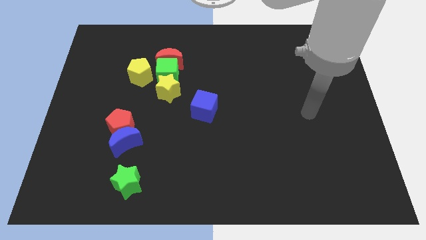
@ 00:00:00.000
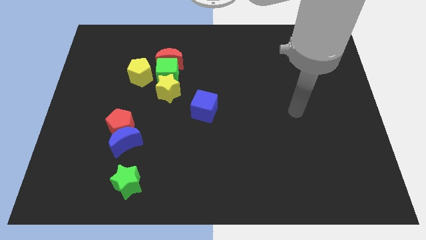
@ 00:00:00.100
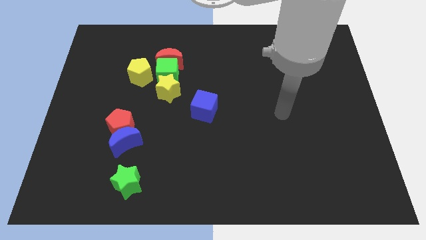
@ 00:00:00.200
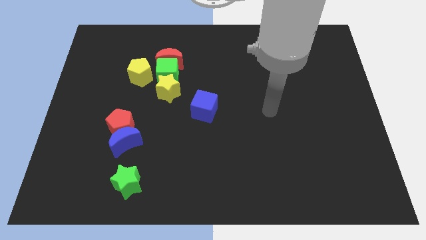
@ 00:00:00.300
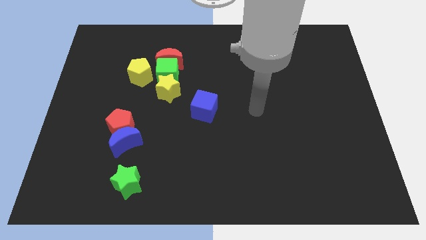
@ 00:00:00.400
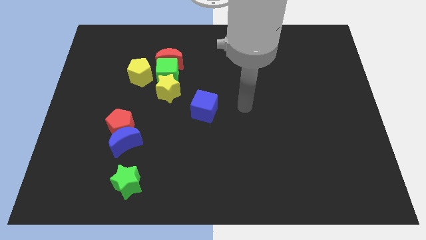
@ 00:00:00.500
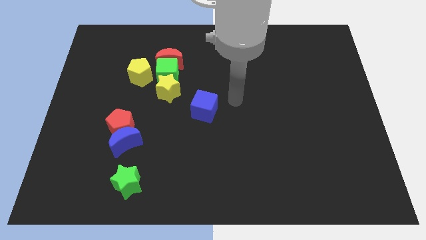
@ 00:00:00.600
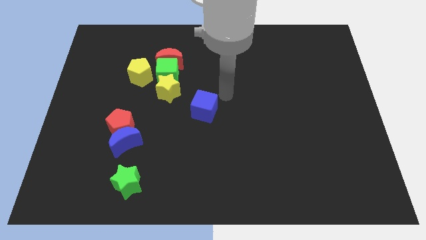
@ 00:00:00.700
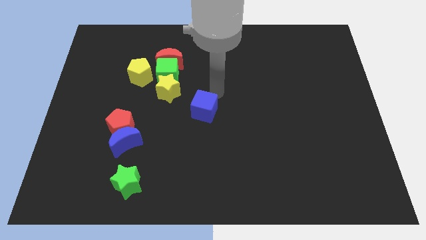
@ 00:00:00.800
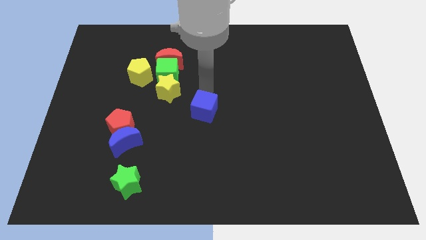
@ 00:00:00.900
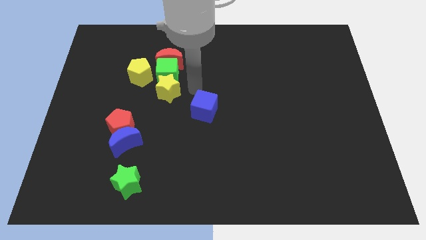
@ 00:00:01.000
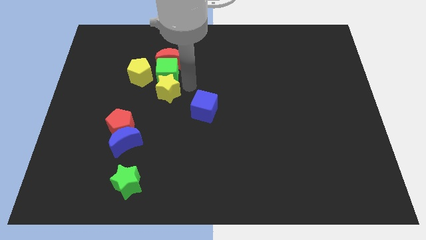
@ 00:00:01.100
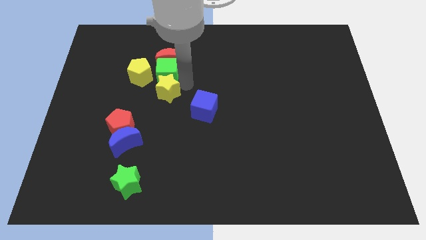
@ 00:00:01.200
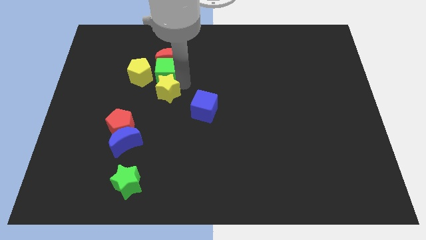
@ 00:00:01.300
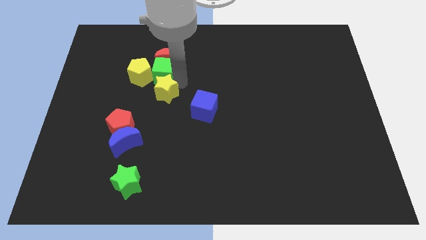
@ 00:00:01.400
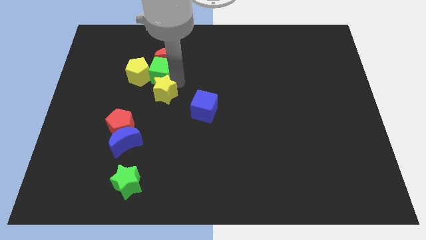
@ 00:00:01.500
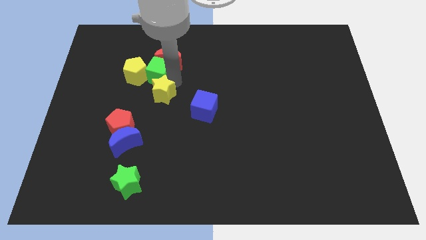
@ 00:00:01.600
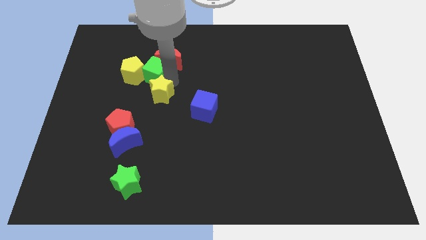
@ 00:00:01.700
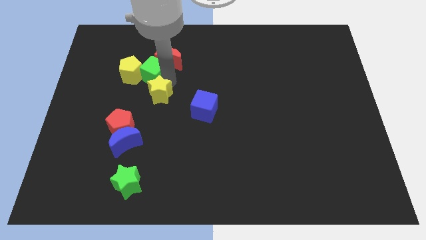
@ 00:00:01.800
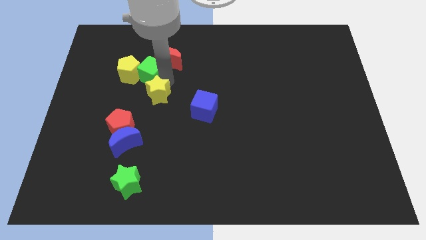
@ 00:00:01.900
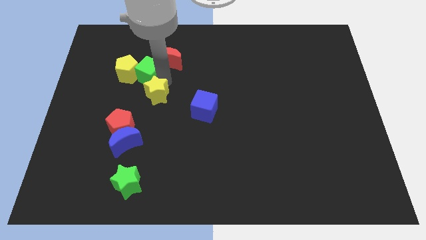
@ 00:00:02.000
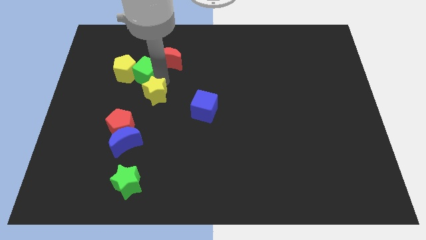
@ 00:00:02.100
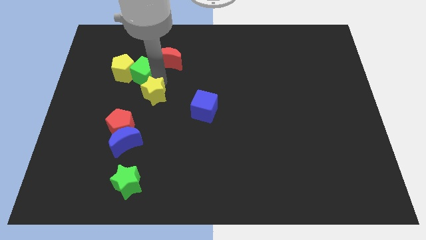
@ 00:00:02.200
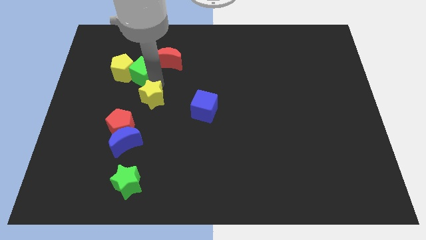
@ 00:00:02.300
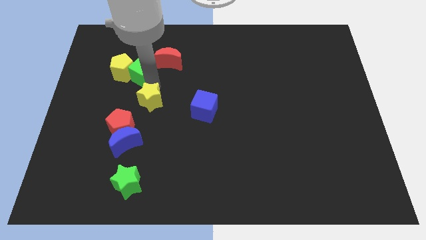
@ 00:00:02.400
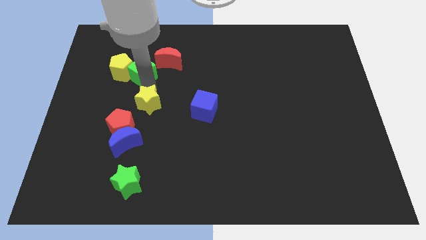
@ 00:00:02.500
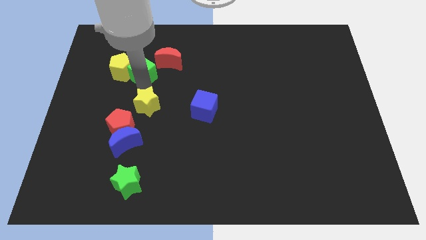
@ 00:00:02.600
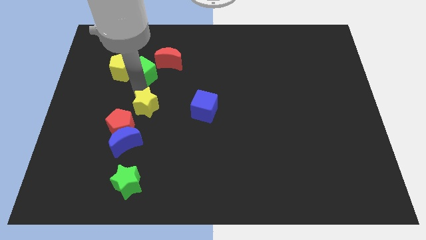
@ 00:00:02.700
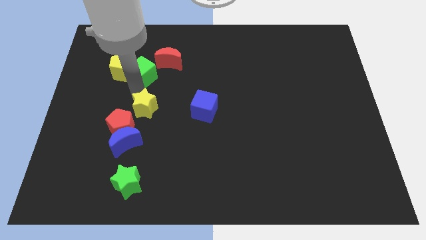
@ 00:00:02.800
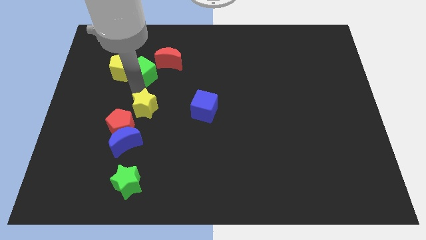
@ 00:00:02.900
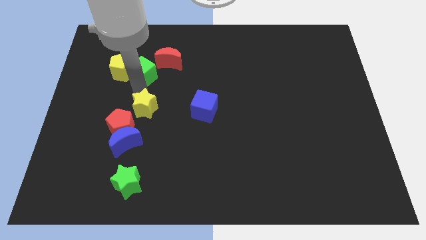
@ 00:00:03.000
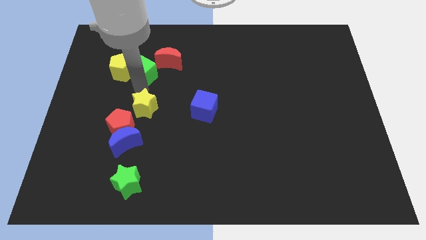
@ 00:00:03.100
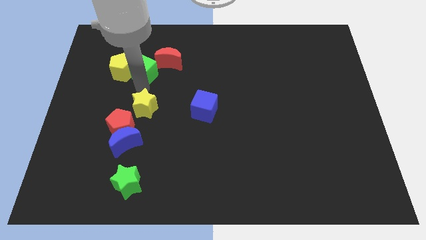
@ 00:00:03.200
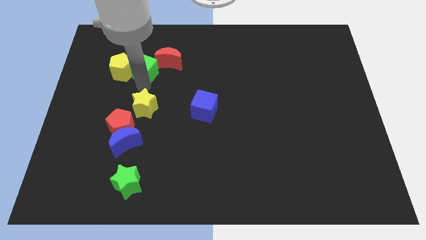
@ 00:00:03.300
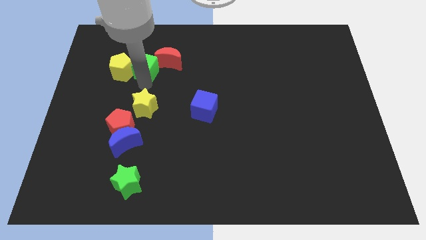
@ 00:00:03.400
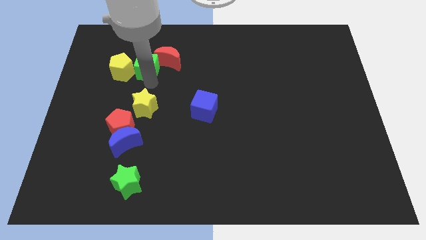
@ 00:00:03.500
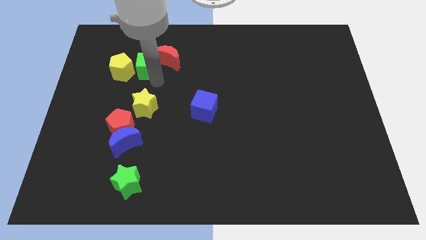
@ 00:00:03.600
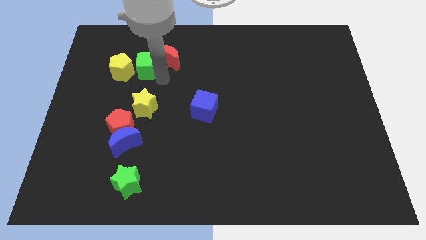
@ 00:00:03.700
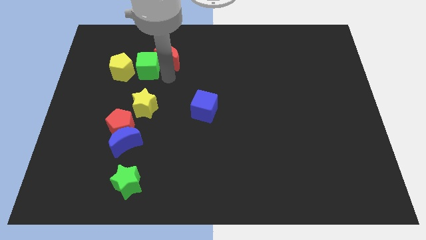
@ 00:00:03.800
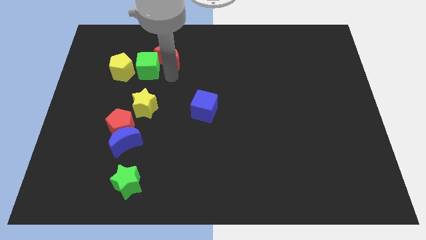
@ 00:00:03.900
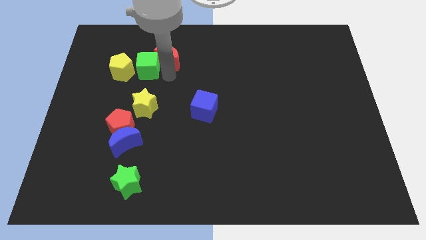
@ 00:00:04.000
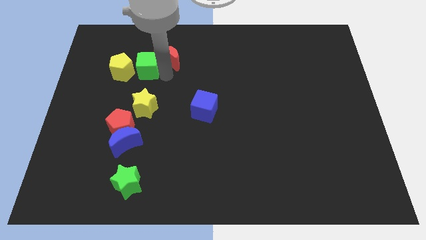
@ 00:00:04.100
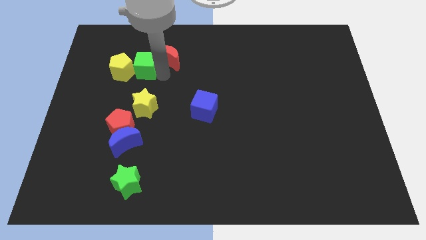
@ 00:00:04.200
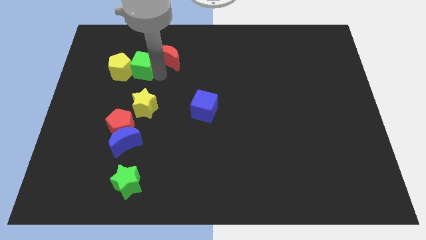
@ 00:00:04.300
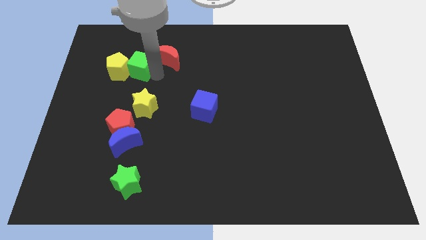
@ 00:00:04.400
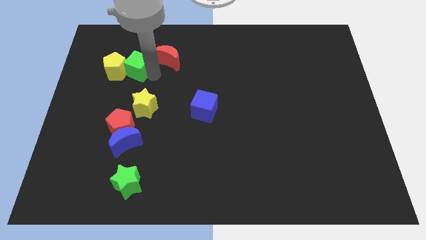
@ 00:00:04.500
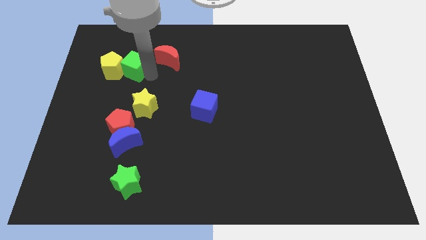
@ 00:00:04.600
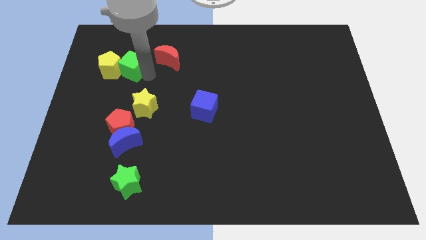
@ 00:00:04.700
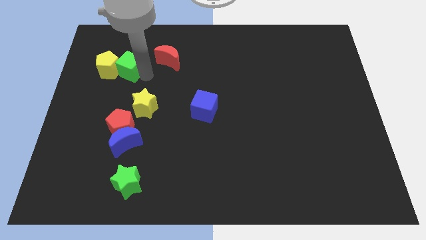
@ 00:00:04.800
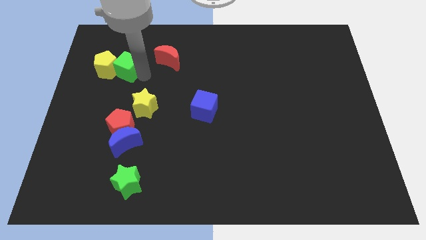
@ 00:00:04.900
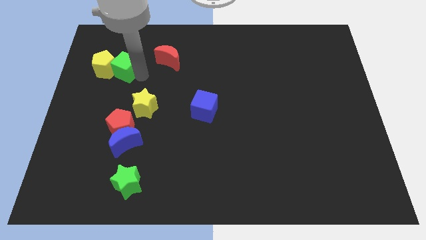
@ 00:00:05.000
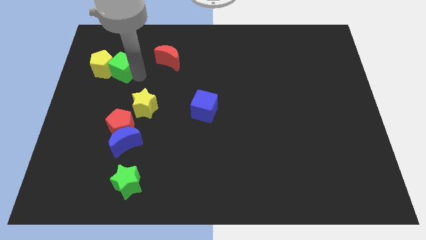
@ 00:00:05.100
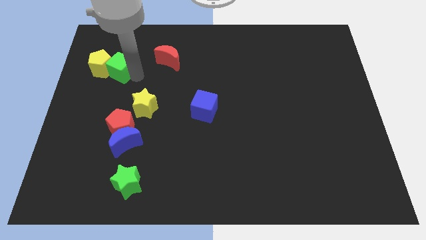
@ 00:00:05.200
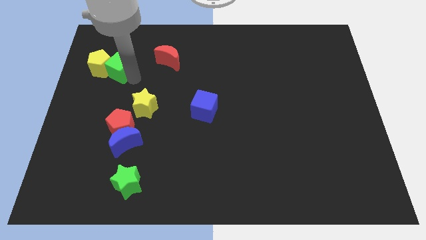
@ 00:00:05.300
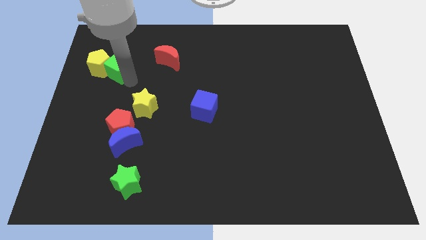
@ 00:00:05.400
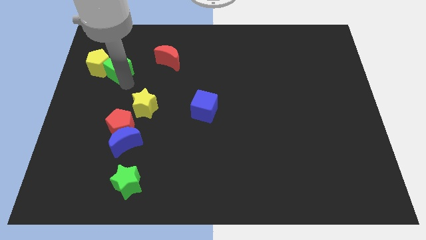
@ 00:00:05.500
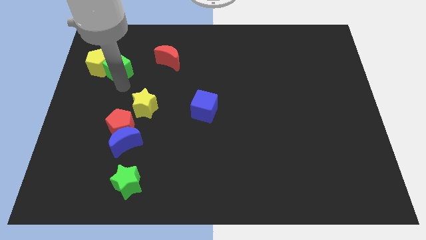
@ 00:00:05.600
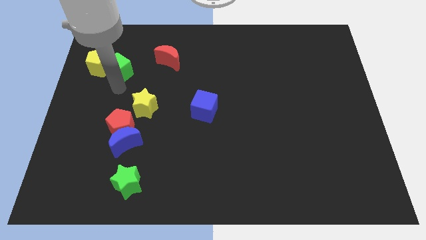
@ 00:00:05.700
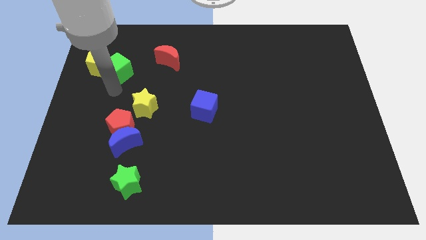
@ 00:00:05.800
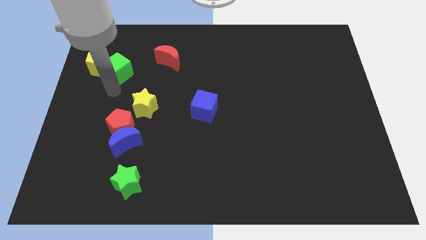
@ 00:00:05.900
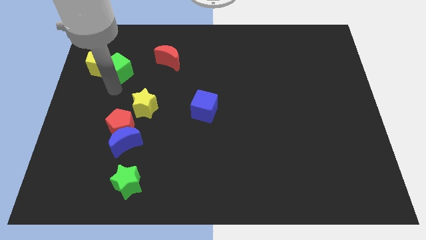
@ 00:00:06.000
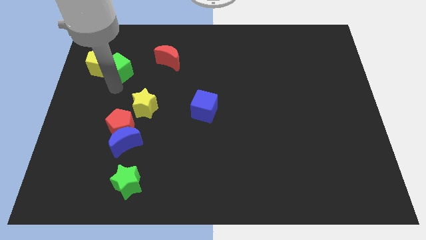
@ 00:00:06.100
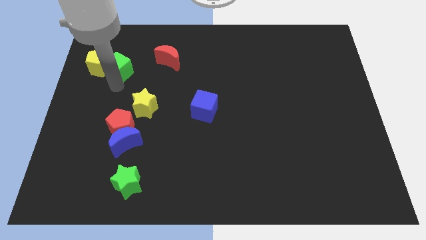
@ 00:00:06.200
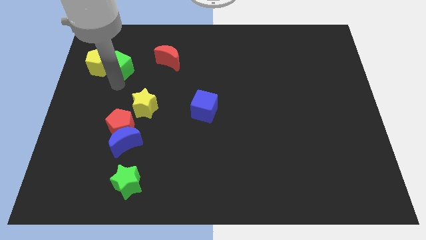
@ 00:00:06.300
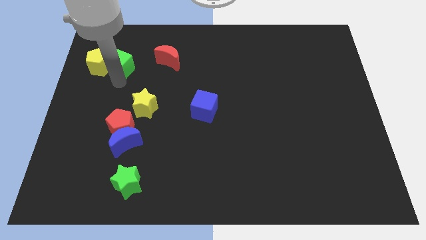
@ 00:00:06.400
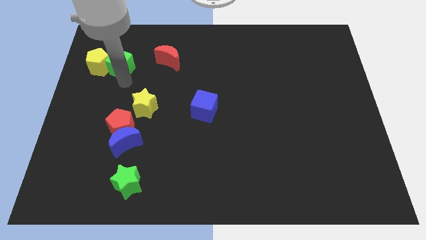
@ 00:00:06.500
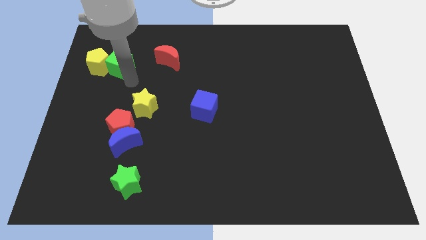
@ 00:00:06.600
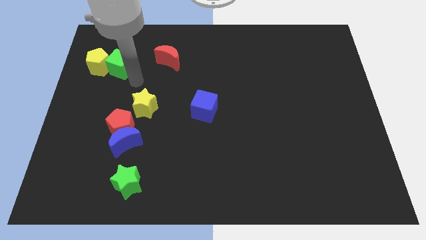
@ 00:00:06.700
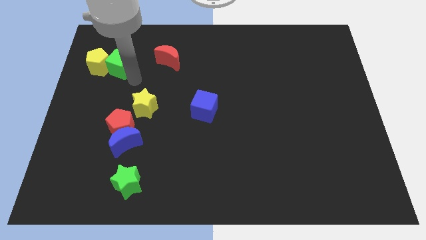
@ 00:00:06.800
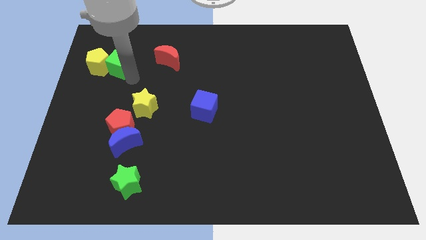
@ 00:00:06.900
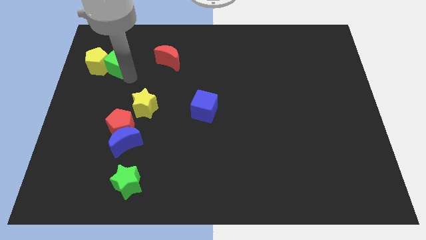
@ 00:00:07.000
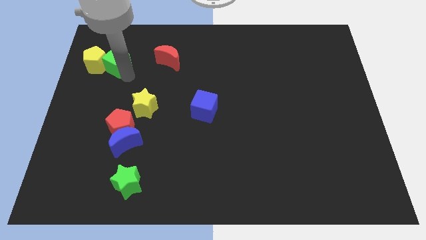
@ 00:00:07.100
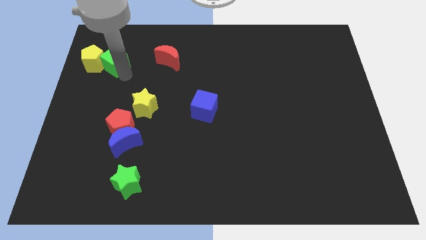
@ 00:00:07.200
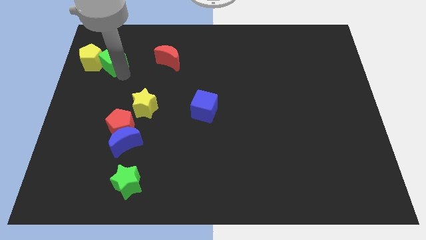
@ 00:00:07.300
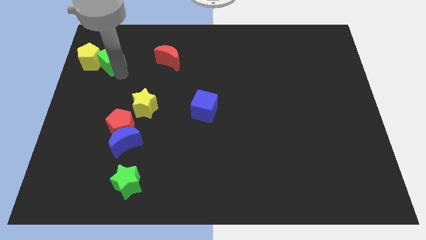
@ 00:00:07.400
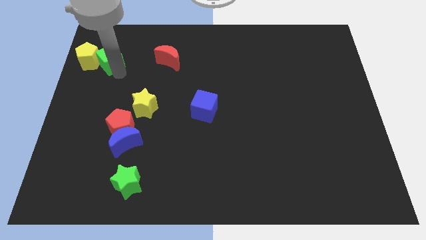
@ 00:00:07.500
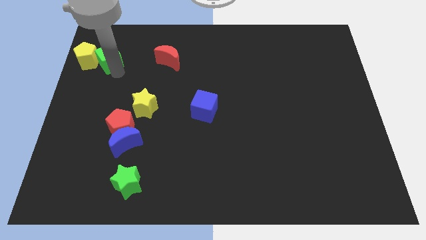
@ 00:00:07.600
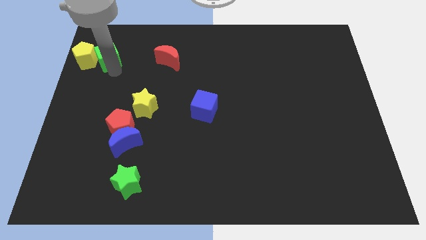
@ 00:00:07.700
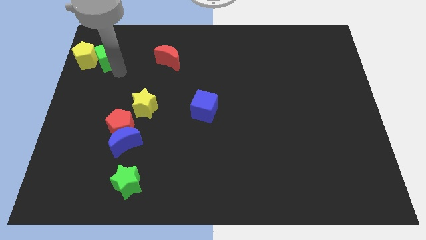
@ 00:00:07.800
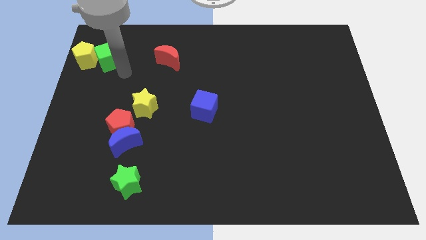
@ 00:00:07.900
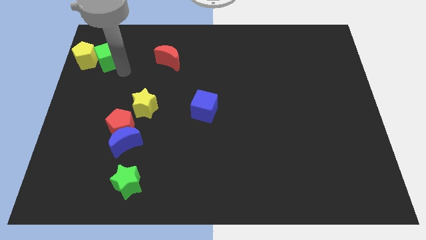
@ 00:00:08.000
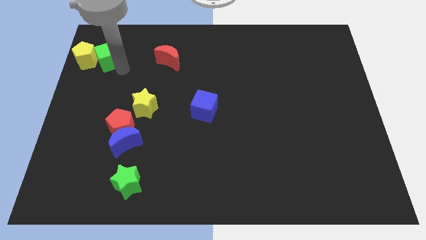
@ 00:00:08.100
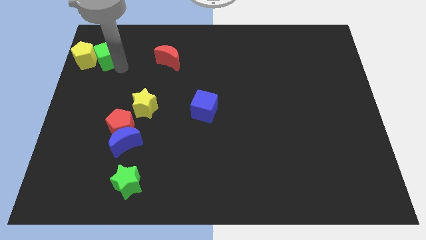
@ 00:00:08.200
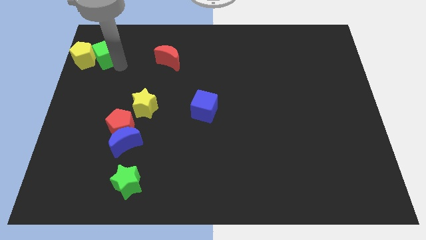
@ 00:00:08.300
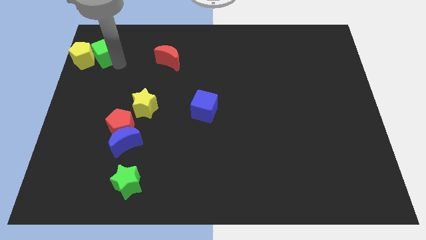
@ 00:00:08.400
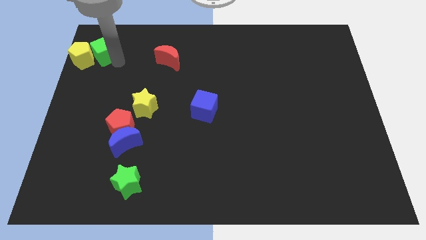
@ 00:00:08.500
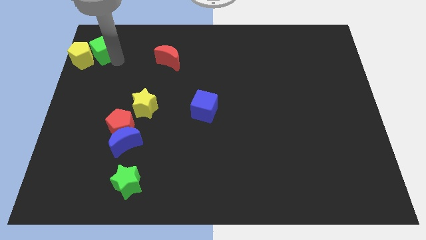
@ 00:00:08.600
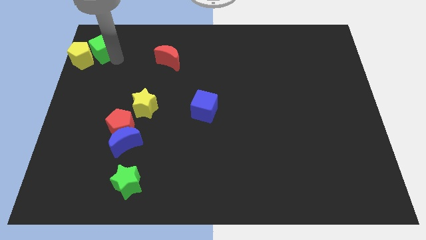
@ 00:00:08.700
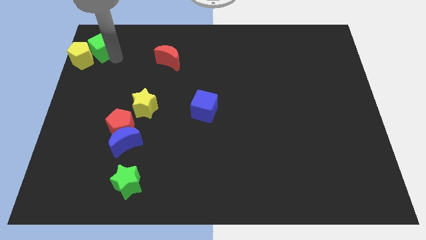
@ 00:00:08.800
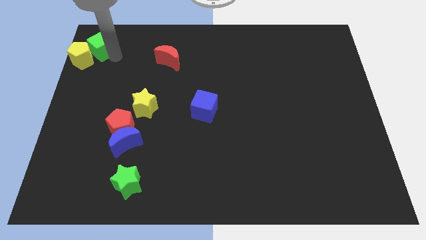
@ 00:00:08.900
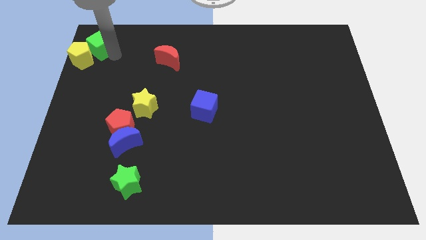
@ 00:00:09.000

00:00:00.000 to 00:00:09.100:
move the green cube to the upper left corner
